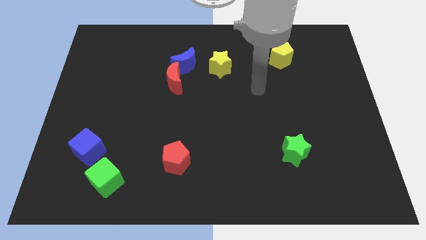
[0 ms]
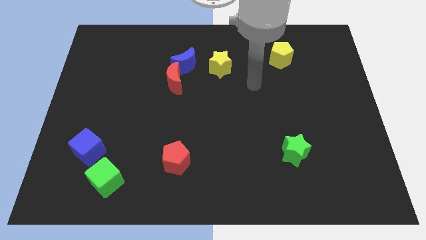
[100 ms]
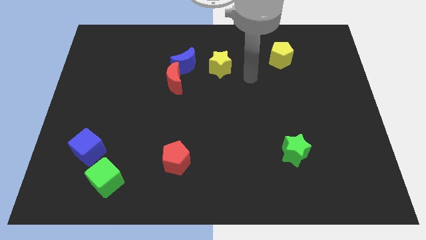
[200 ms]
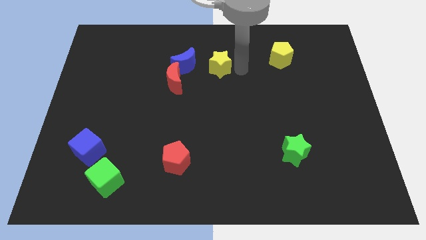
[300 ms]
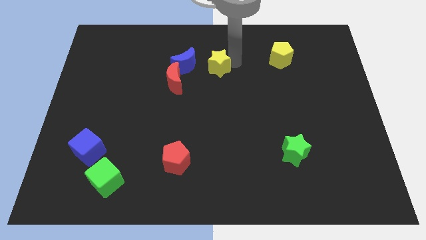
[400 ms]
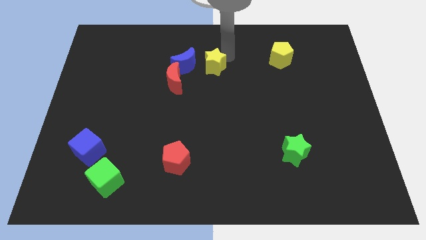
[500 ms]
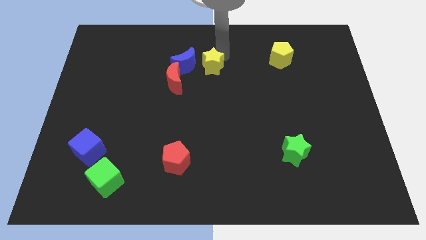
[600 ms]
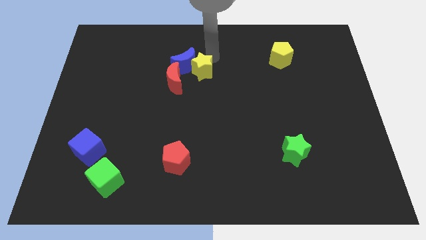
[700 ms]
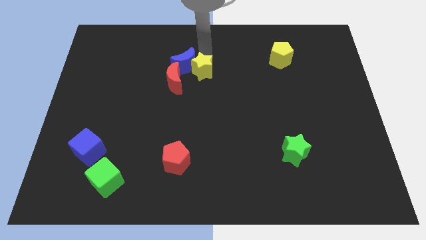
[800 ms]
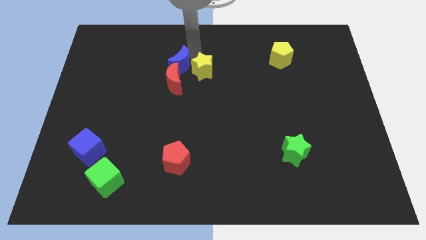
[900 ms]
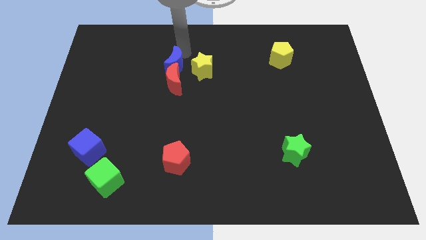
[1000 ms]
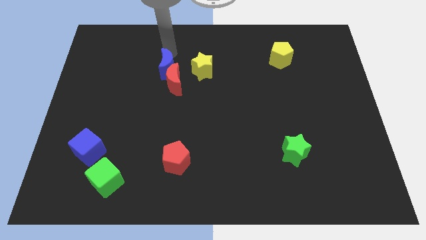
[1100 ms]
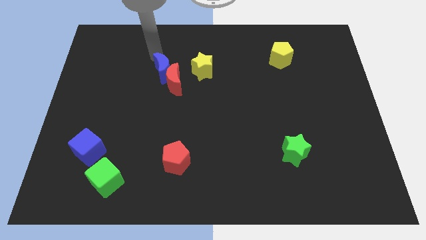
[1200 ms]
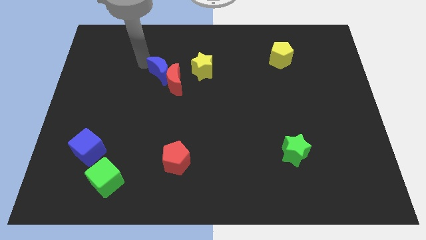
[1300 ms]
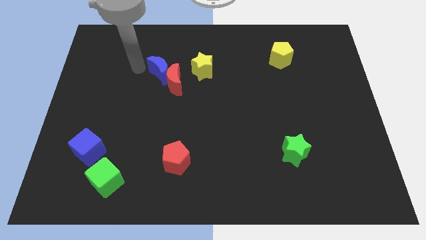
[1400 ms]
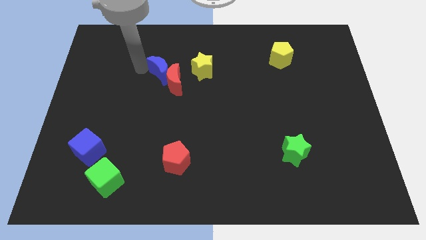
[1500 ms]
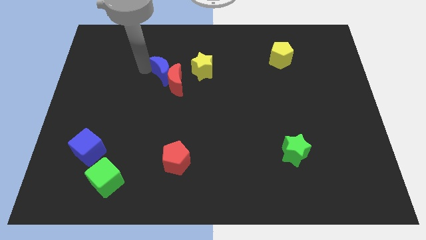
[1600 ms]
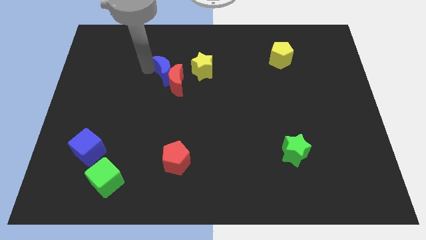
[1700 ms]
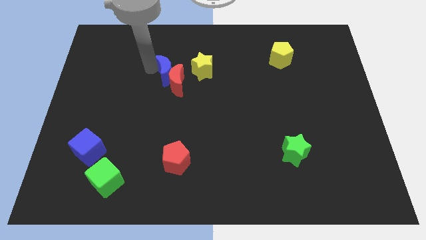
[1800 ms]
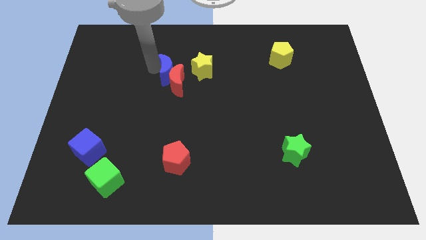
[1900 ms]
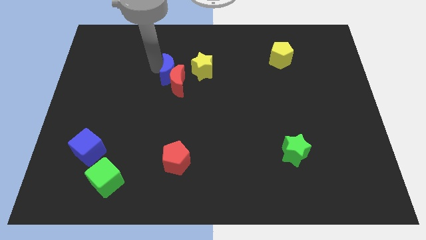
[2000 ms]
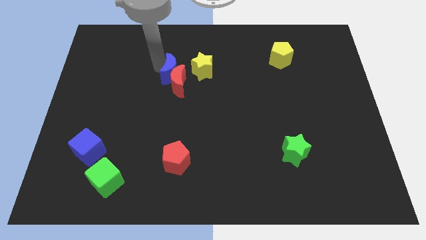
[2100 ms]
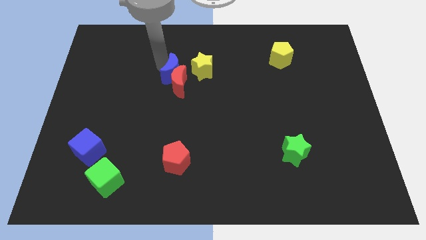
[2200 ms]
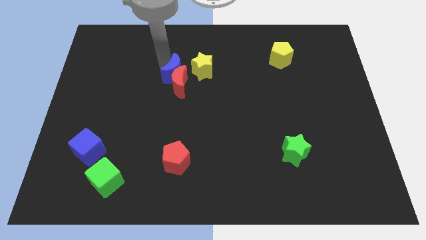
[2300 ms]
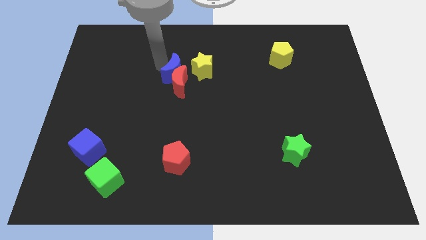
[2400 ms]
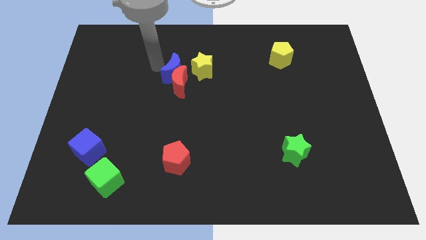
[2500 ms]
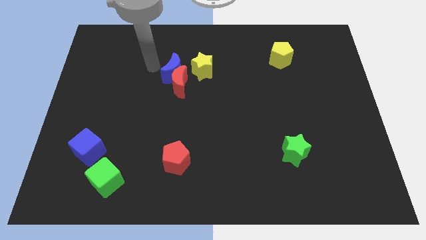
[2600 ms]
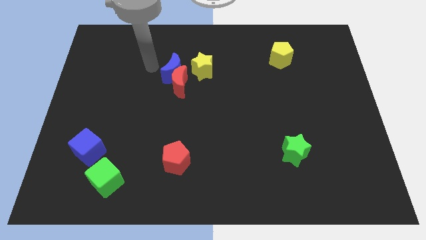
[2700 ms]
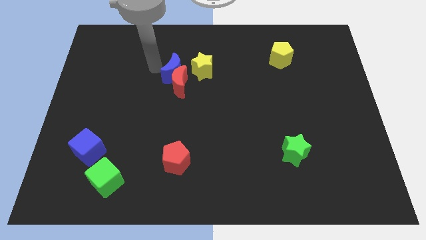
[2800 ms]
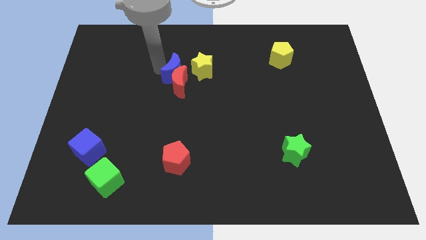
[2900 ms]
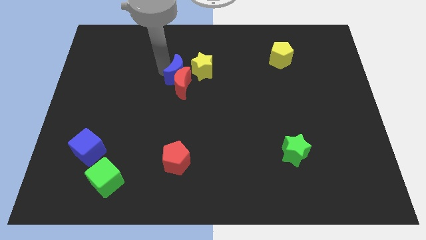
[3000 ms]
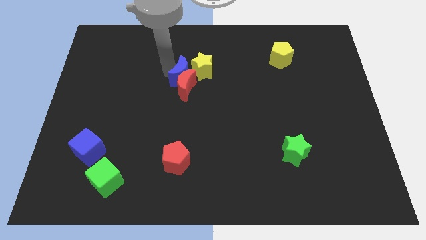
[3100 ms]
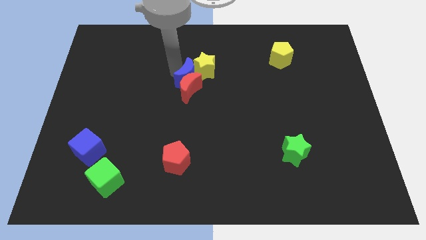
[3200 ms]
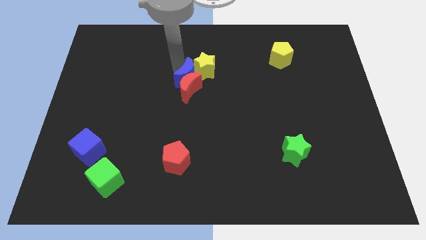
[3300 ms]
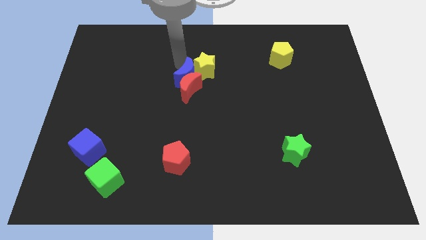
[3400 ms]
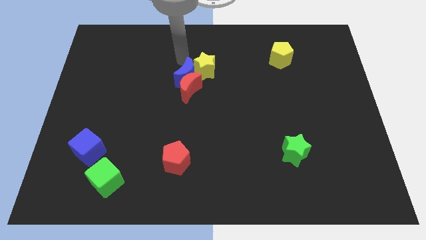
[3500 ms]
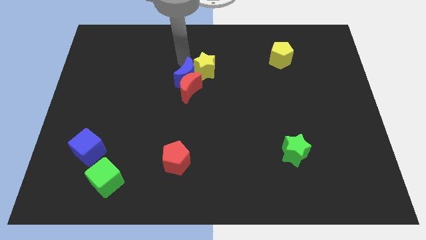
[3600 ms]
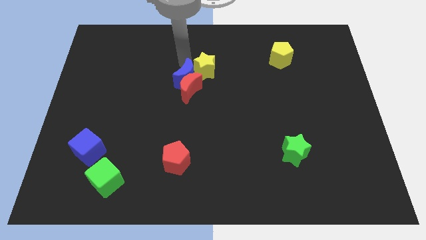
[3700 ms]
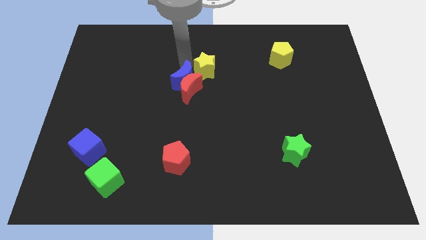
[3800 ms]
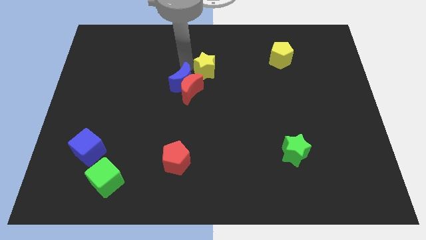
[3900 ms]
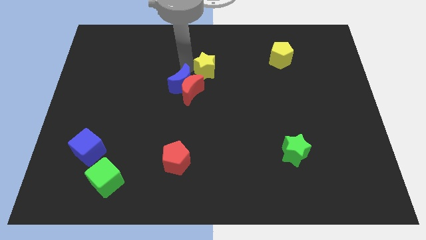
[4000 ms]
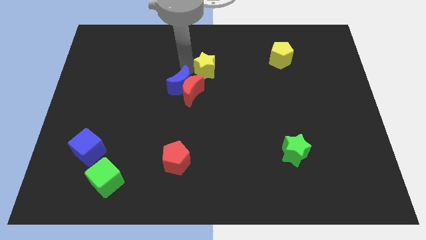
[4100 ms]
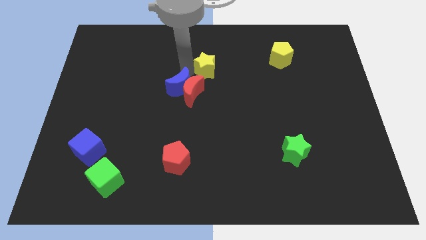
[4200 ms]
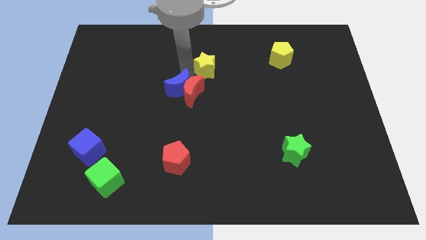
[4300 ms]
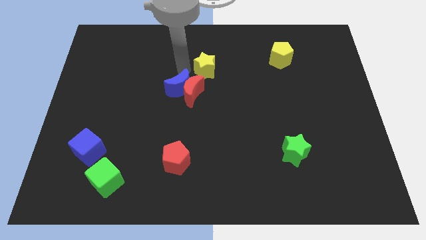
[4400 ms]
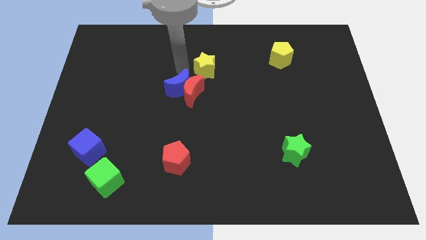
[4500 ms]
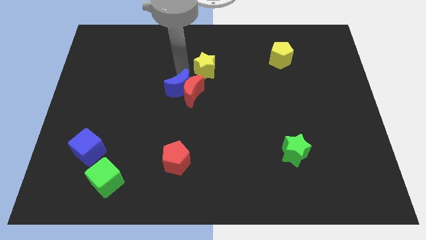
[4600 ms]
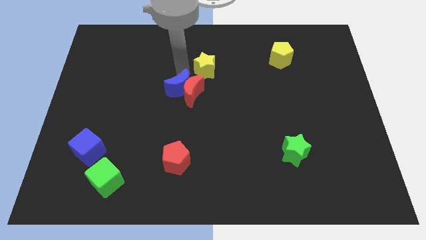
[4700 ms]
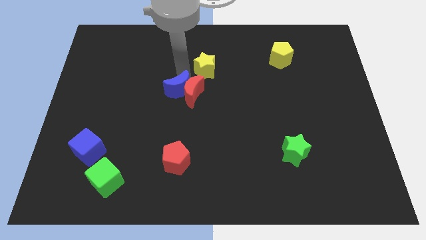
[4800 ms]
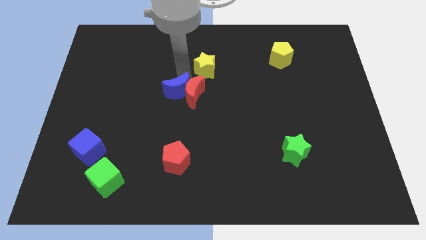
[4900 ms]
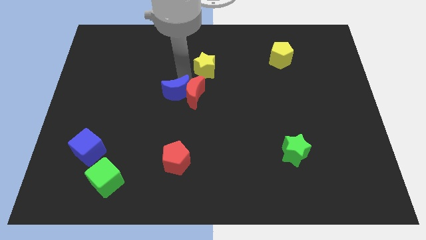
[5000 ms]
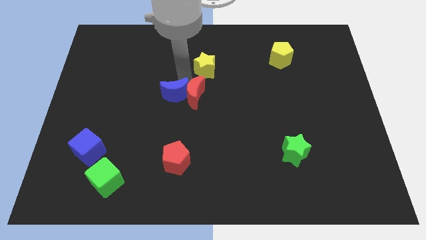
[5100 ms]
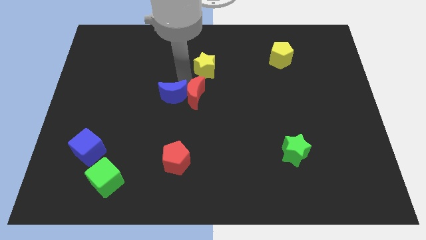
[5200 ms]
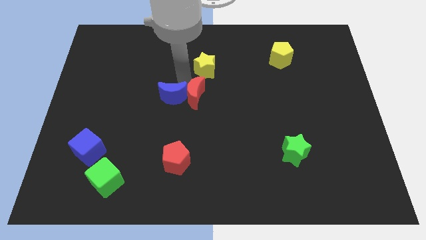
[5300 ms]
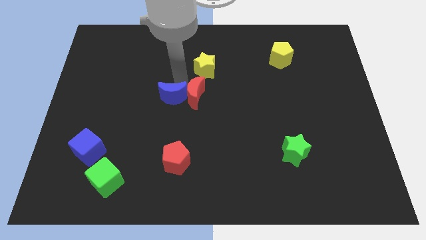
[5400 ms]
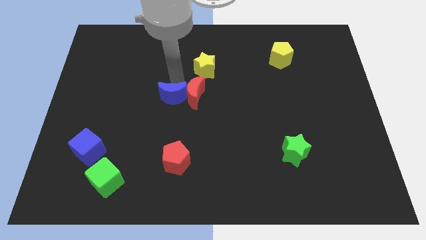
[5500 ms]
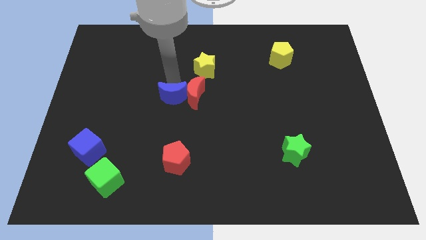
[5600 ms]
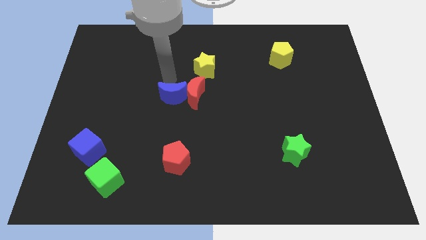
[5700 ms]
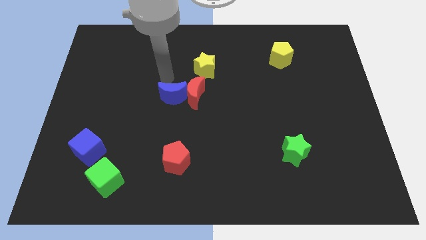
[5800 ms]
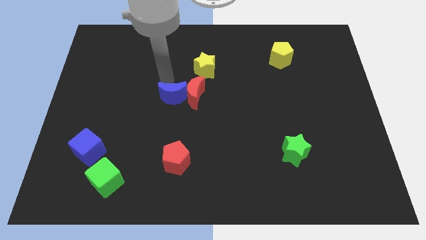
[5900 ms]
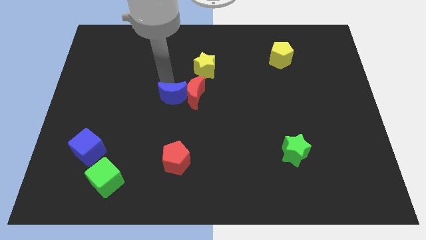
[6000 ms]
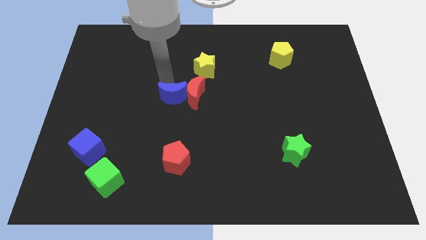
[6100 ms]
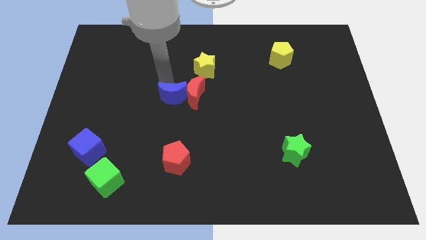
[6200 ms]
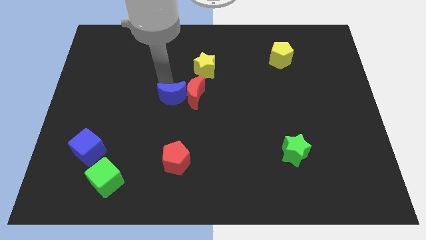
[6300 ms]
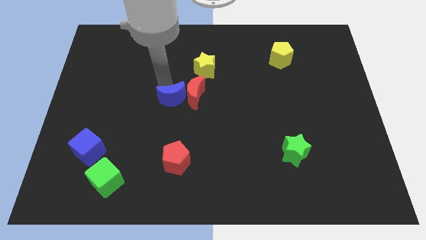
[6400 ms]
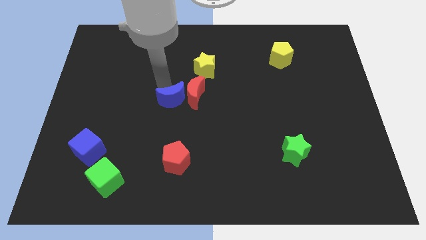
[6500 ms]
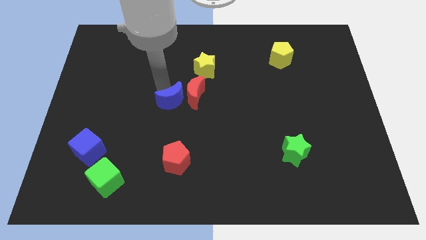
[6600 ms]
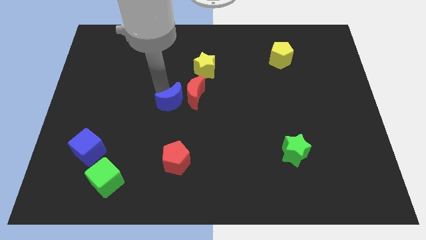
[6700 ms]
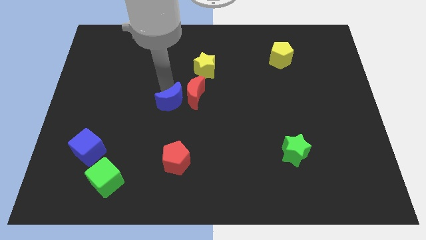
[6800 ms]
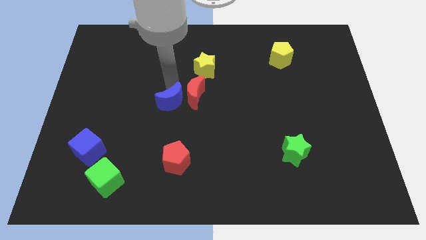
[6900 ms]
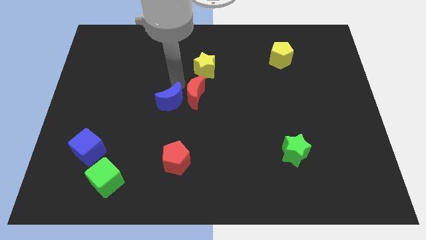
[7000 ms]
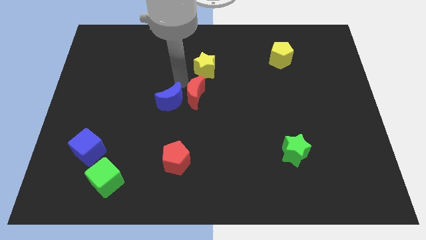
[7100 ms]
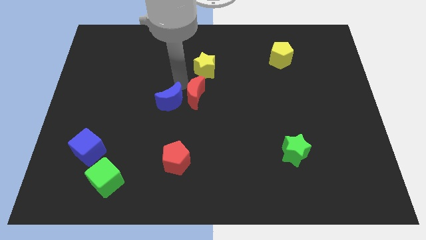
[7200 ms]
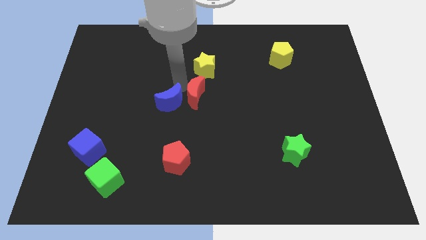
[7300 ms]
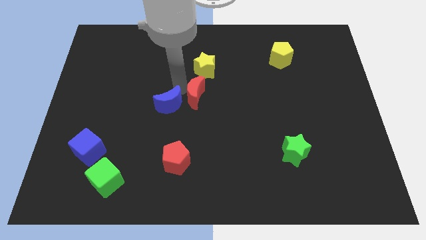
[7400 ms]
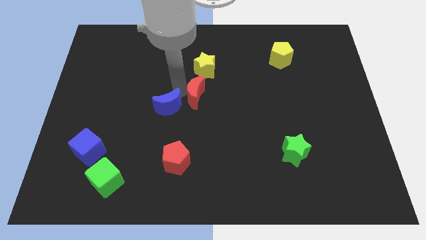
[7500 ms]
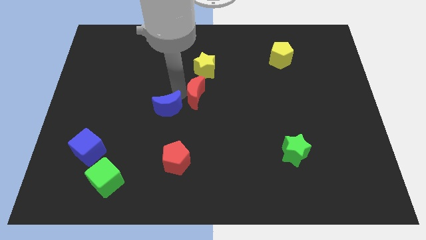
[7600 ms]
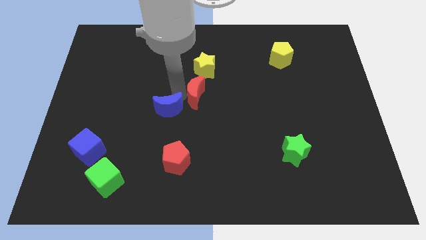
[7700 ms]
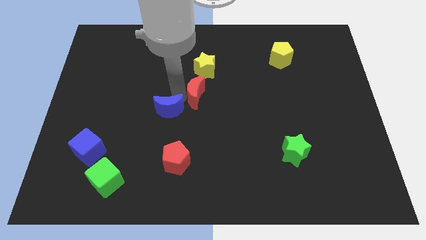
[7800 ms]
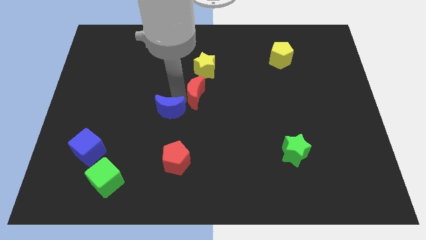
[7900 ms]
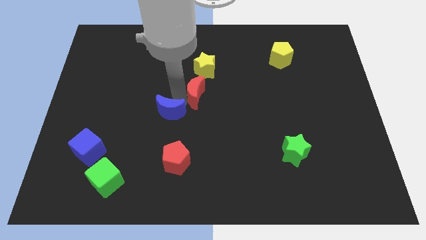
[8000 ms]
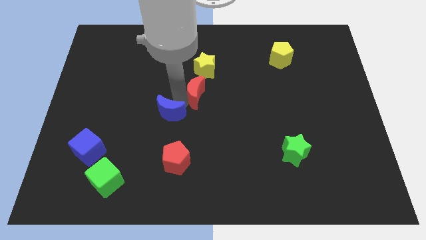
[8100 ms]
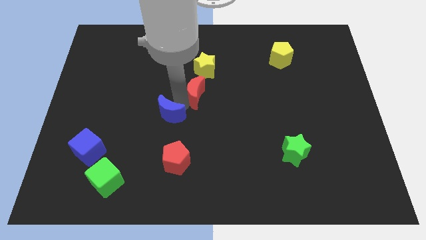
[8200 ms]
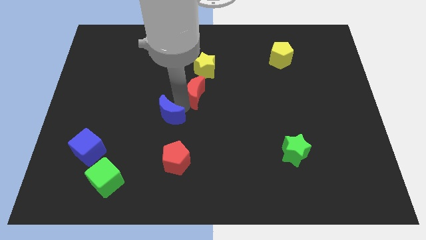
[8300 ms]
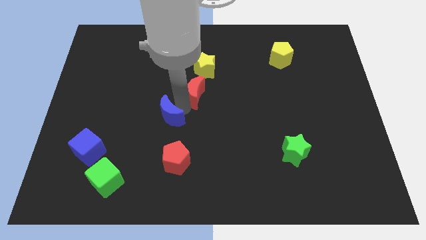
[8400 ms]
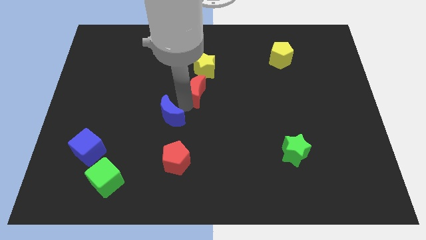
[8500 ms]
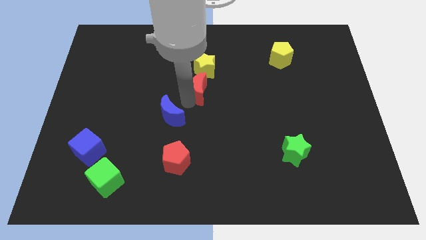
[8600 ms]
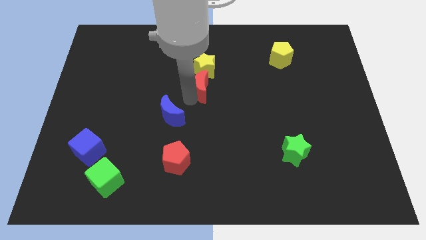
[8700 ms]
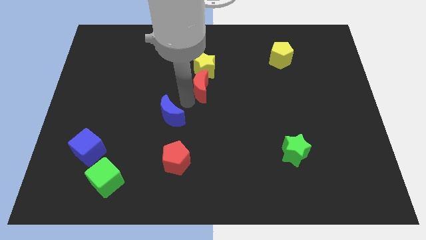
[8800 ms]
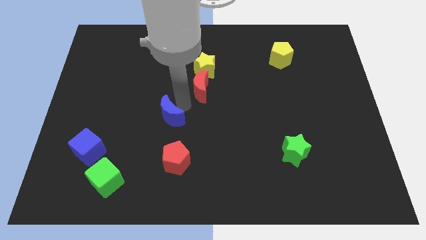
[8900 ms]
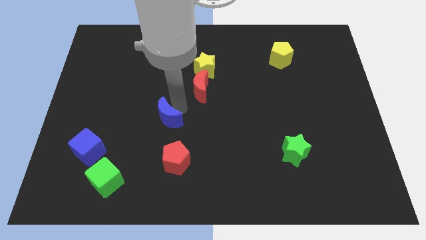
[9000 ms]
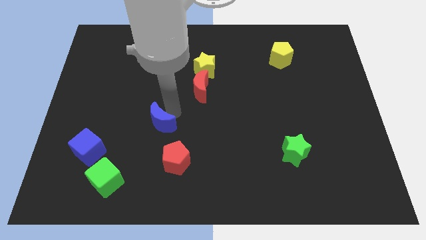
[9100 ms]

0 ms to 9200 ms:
put the blue moon diagonally up and to the left of the red pentagon
